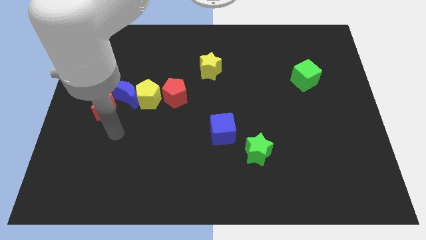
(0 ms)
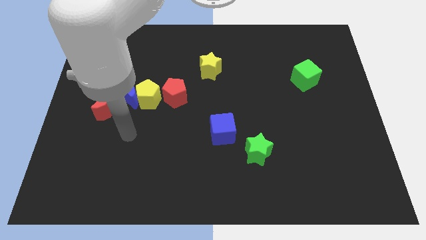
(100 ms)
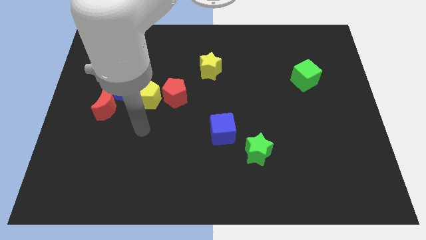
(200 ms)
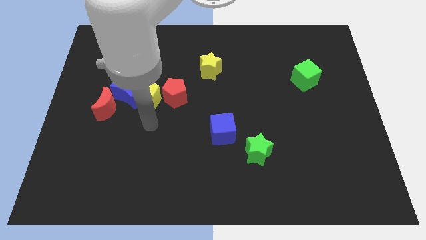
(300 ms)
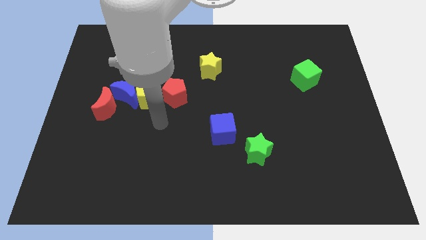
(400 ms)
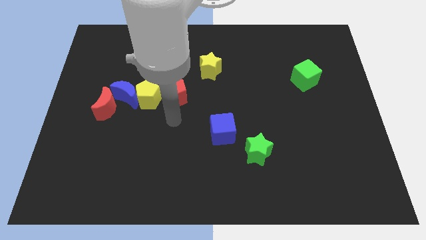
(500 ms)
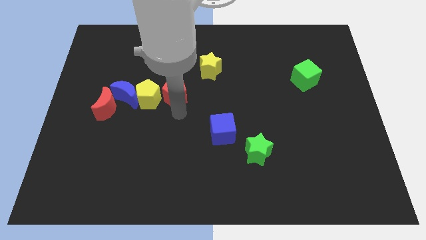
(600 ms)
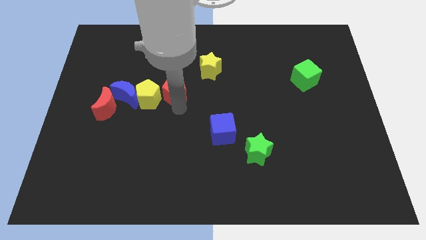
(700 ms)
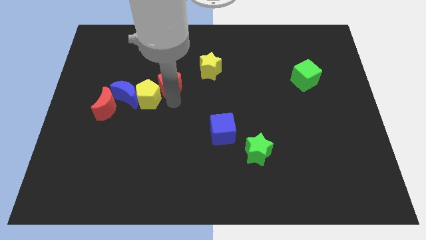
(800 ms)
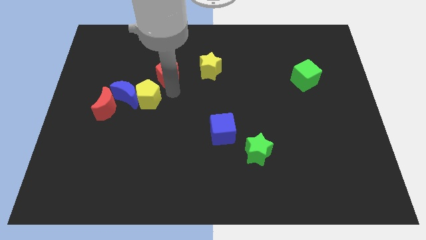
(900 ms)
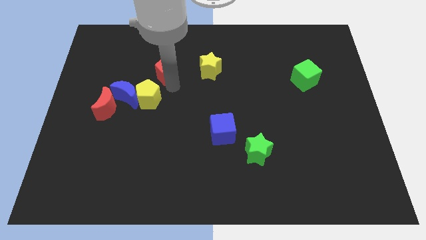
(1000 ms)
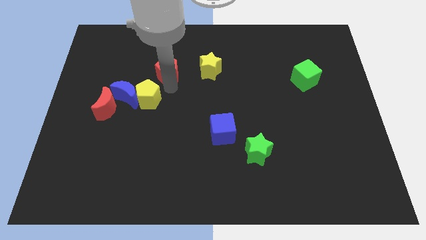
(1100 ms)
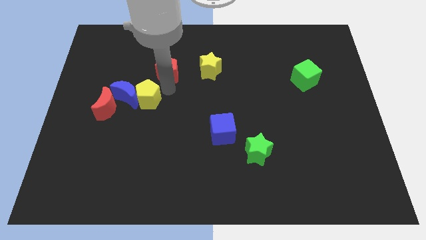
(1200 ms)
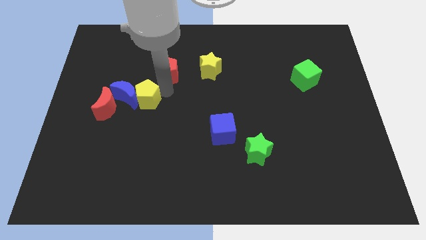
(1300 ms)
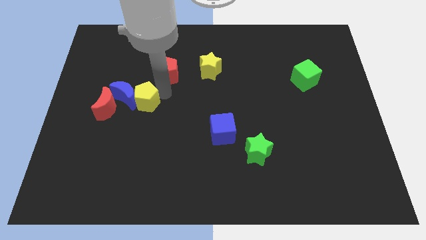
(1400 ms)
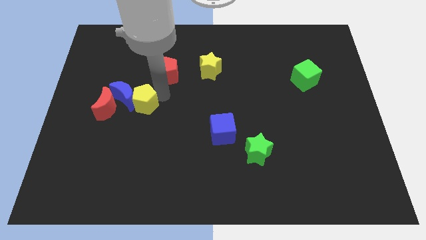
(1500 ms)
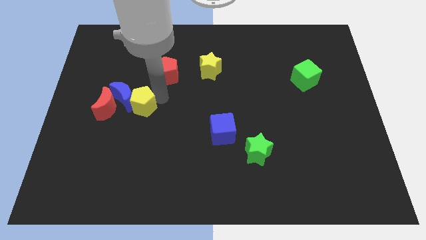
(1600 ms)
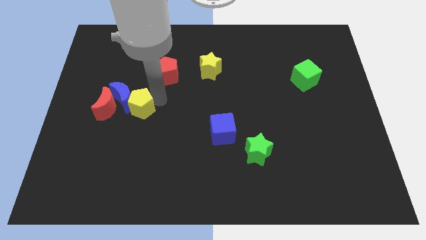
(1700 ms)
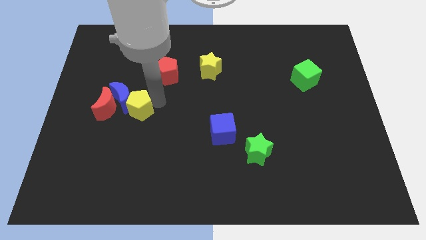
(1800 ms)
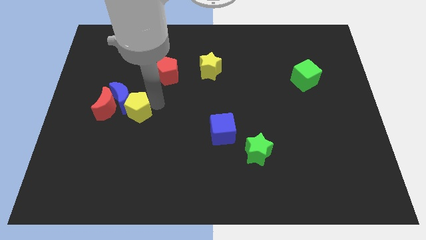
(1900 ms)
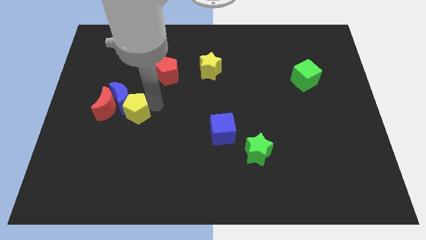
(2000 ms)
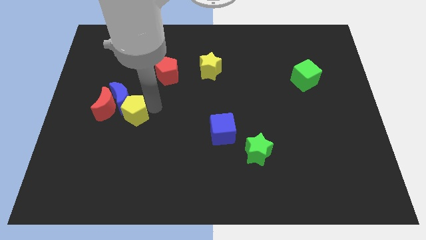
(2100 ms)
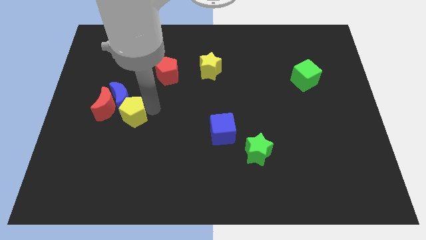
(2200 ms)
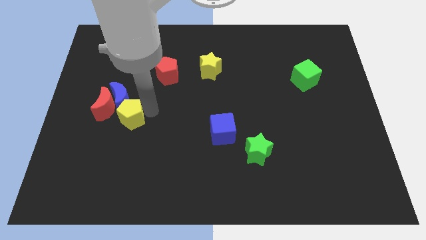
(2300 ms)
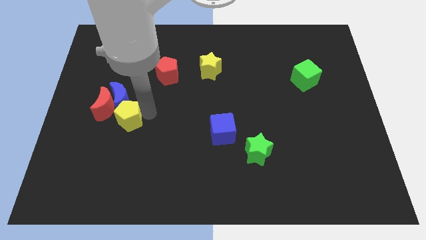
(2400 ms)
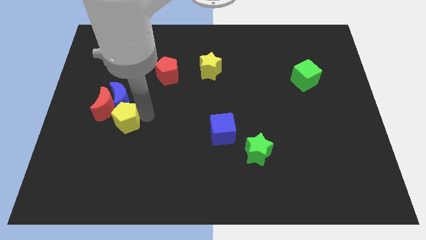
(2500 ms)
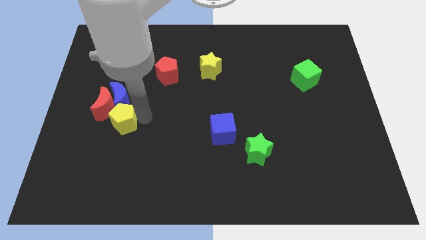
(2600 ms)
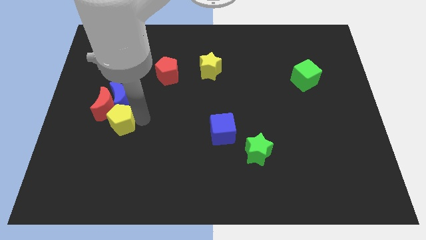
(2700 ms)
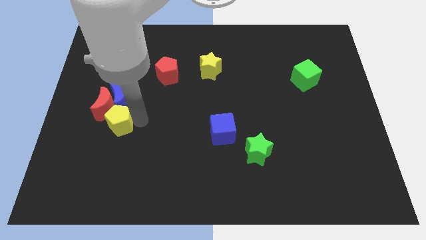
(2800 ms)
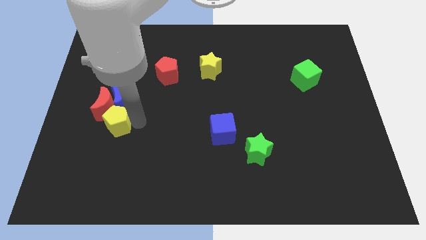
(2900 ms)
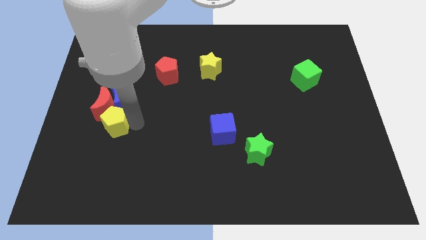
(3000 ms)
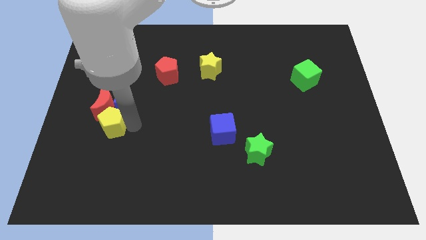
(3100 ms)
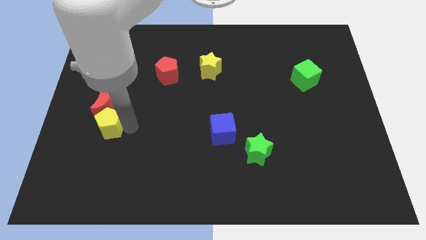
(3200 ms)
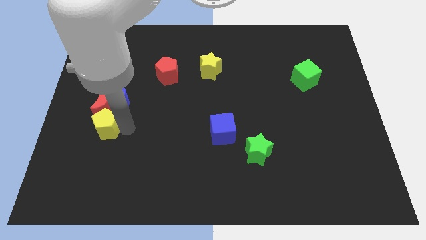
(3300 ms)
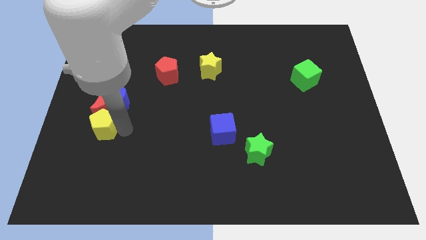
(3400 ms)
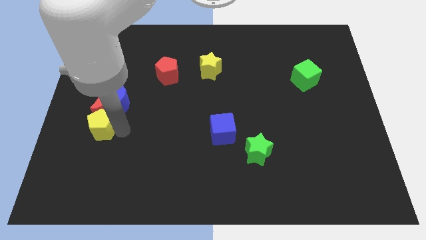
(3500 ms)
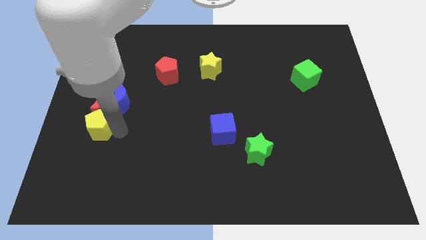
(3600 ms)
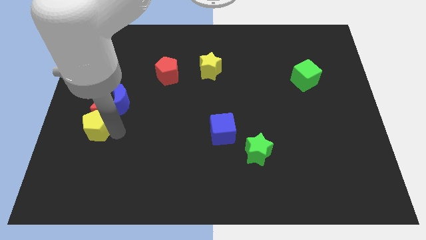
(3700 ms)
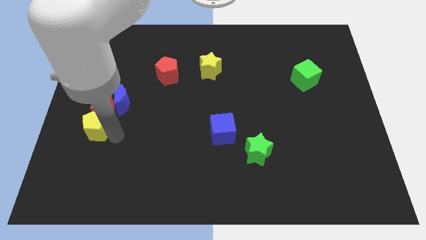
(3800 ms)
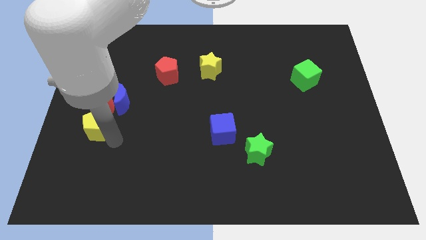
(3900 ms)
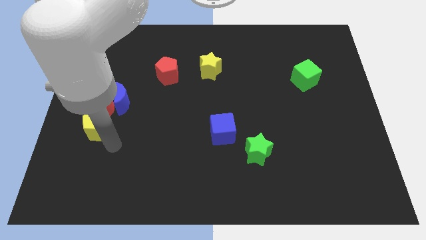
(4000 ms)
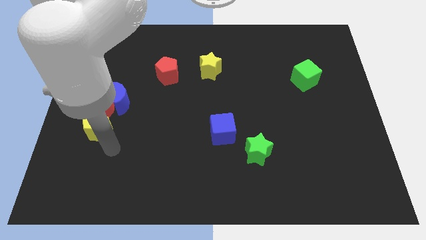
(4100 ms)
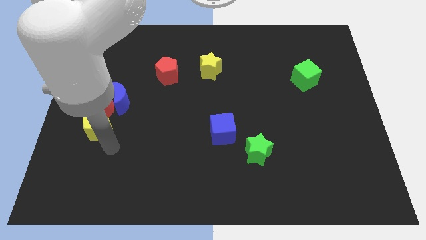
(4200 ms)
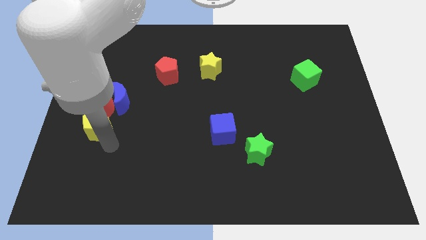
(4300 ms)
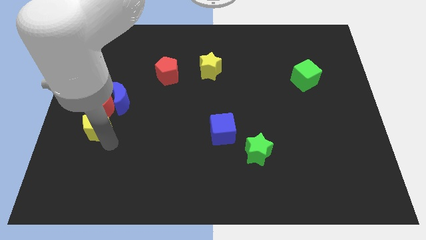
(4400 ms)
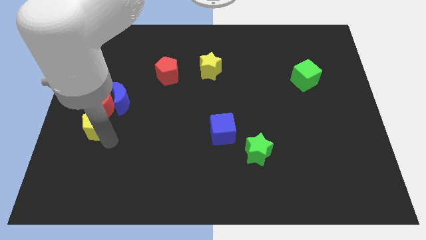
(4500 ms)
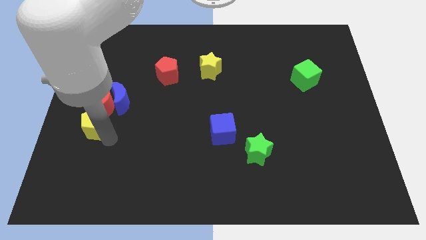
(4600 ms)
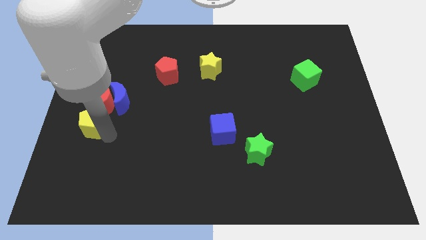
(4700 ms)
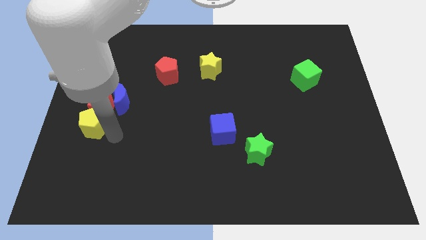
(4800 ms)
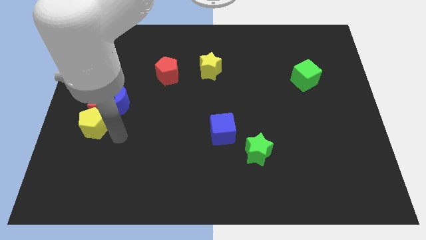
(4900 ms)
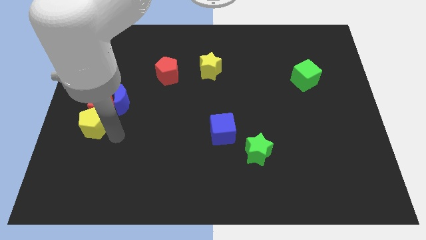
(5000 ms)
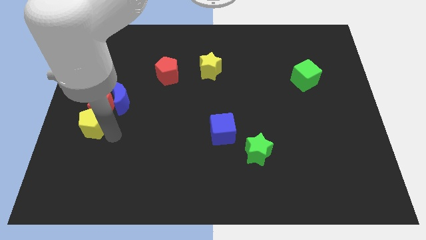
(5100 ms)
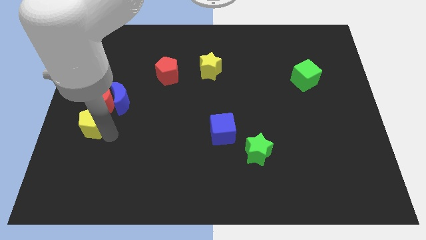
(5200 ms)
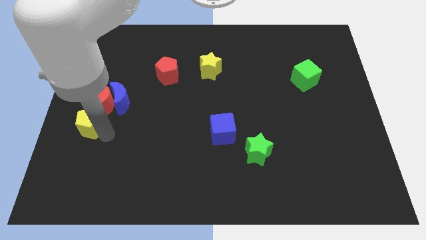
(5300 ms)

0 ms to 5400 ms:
put the yellow pentagon to the left side

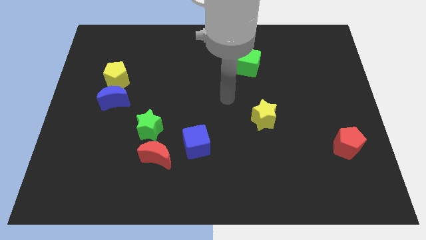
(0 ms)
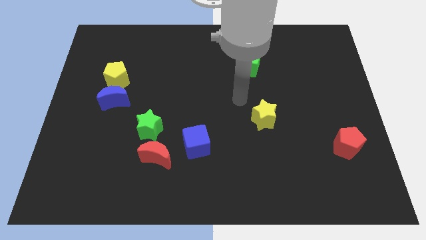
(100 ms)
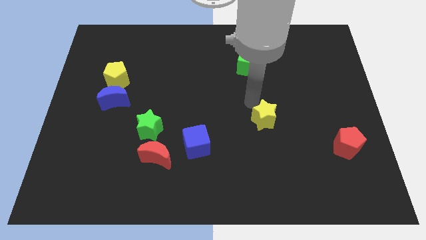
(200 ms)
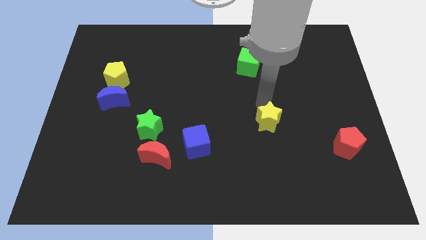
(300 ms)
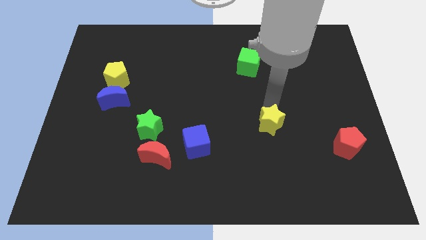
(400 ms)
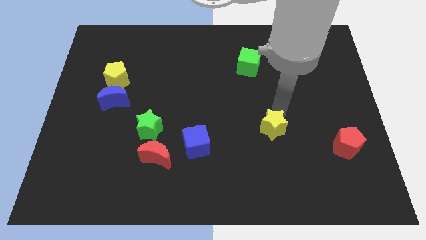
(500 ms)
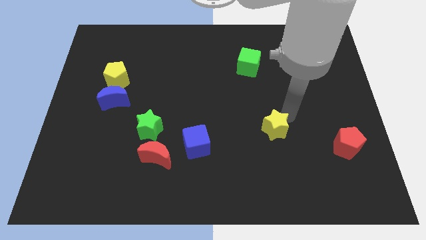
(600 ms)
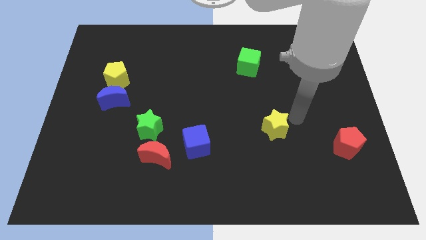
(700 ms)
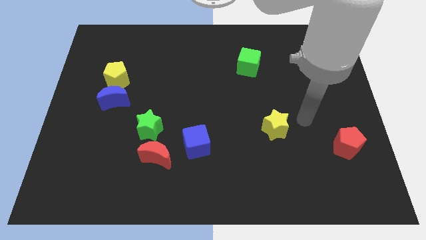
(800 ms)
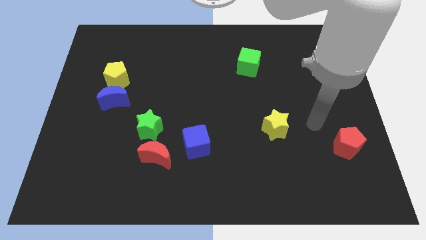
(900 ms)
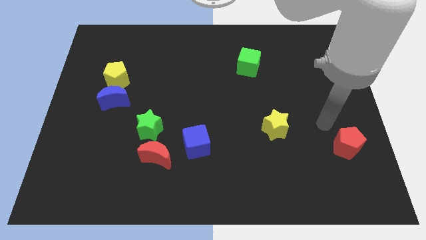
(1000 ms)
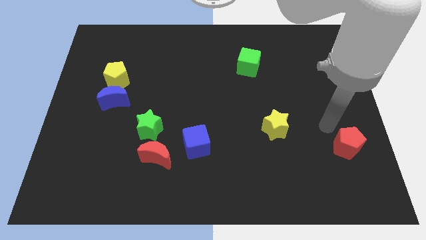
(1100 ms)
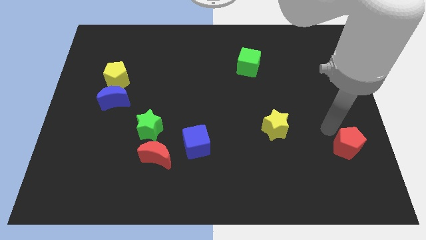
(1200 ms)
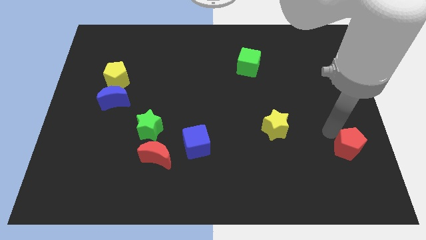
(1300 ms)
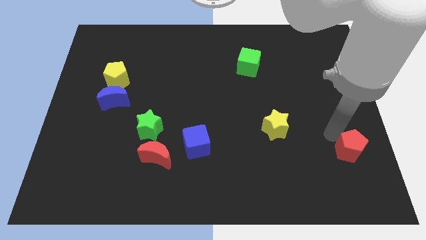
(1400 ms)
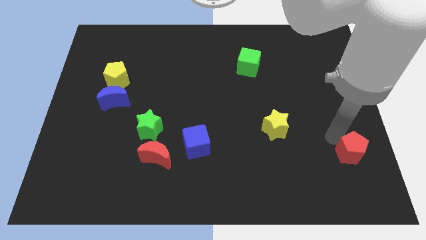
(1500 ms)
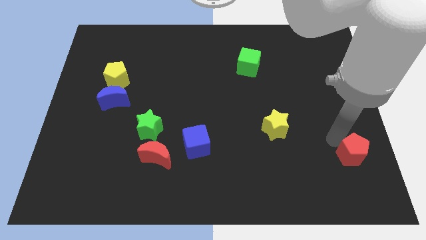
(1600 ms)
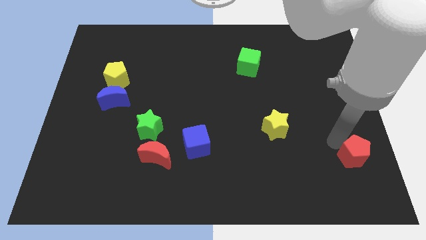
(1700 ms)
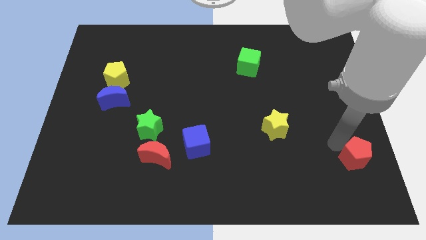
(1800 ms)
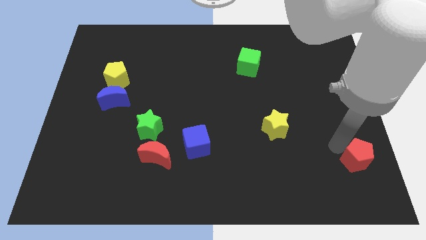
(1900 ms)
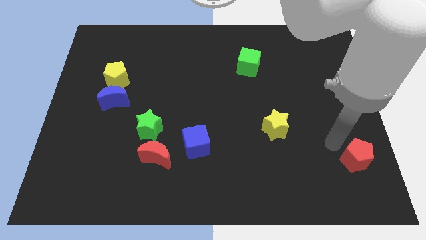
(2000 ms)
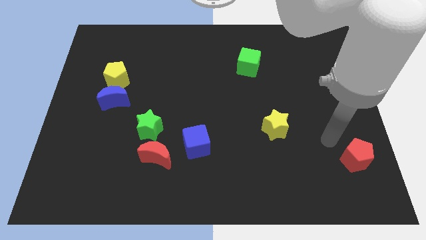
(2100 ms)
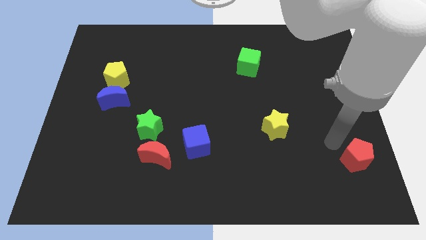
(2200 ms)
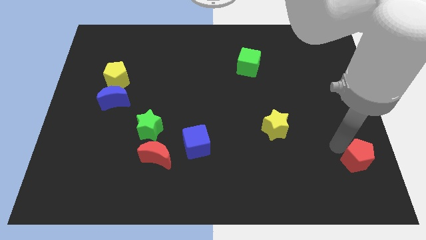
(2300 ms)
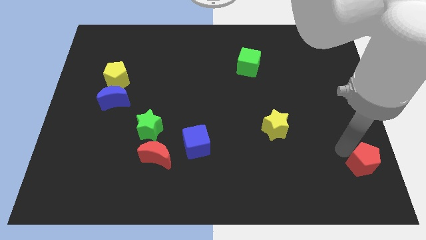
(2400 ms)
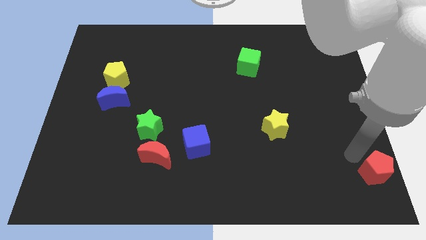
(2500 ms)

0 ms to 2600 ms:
push the red pentagon to the bottom right of the board
